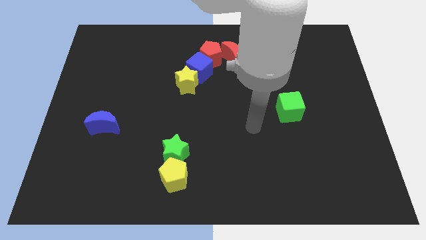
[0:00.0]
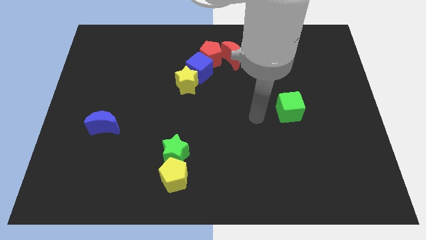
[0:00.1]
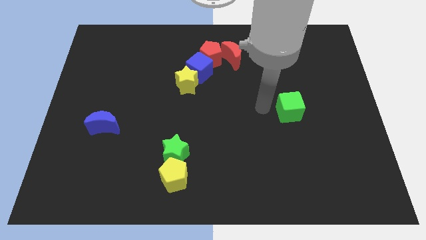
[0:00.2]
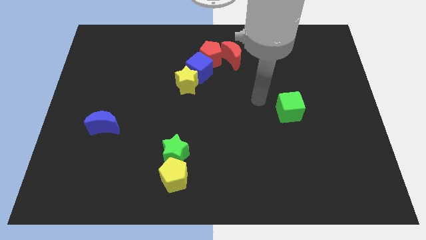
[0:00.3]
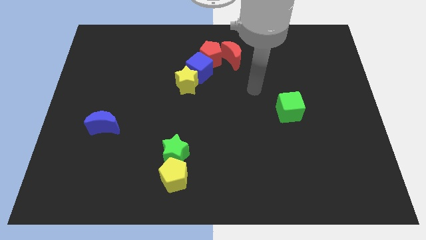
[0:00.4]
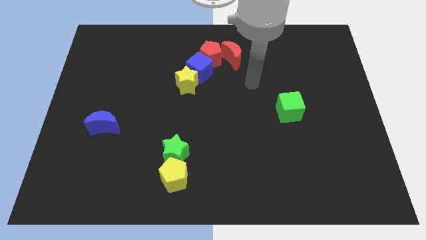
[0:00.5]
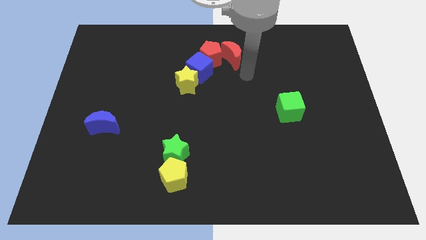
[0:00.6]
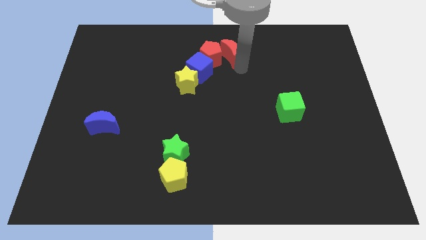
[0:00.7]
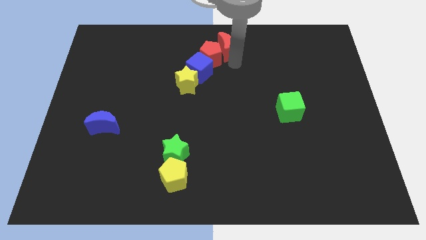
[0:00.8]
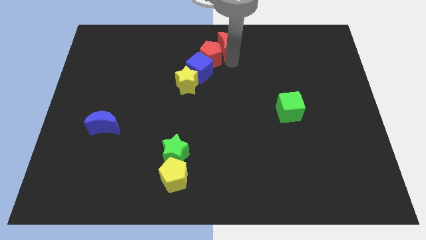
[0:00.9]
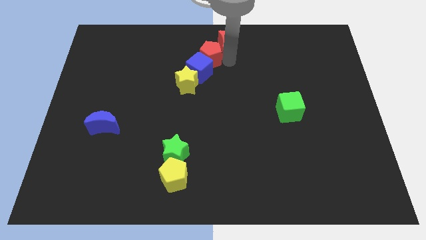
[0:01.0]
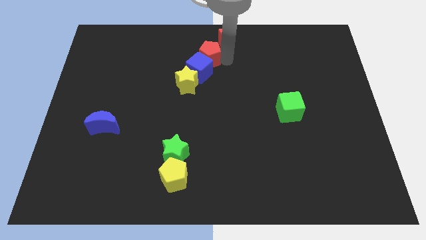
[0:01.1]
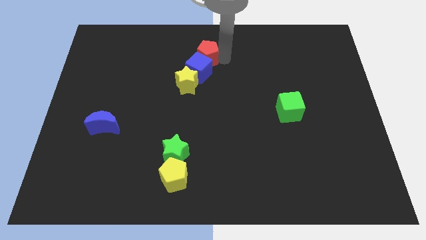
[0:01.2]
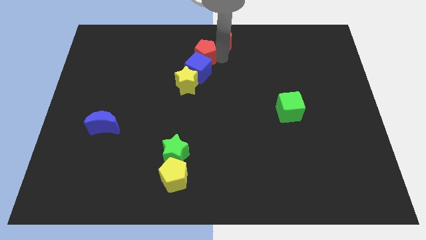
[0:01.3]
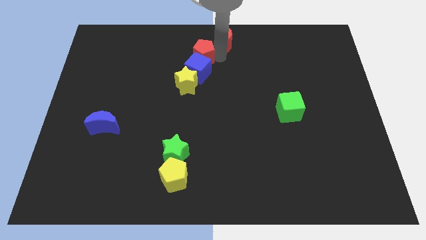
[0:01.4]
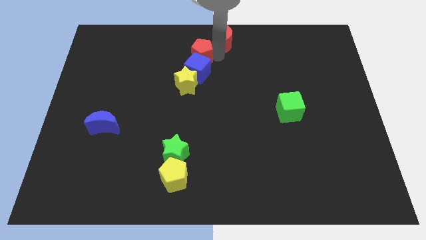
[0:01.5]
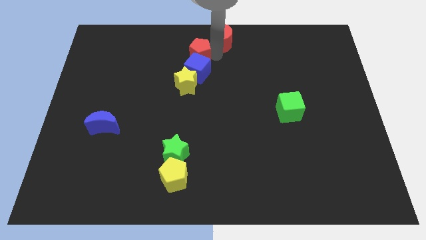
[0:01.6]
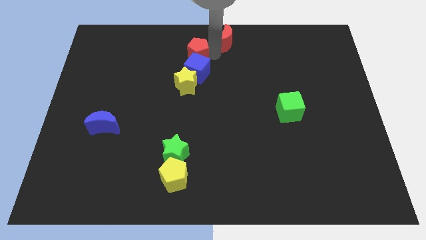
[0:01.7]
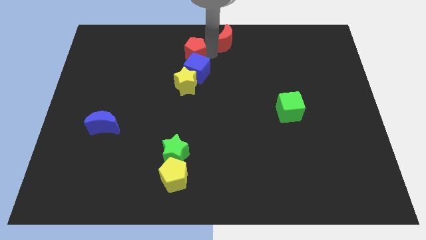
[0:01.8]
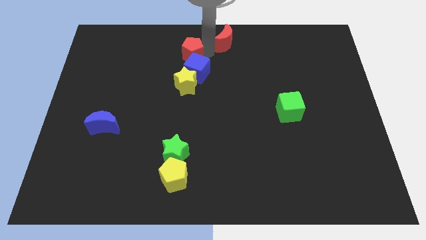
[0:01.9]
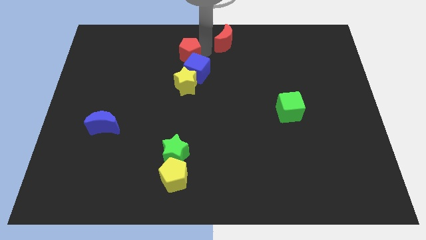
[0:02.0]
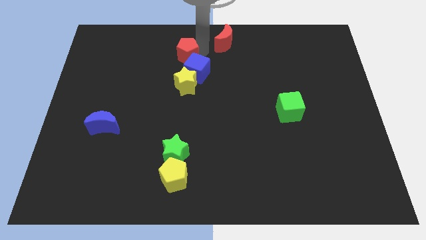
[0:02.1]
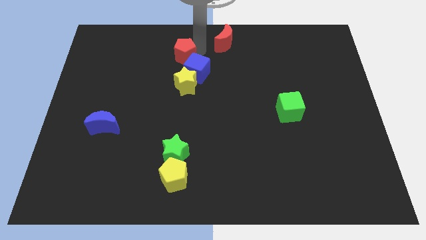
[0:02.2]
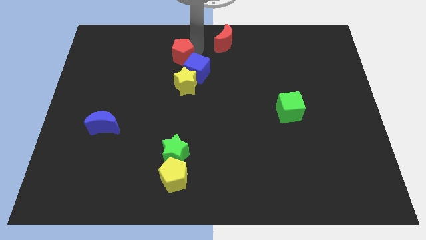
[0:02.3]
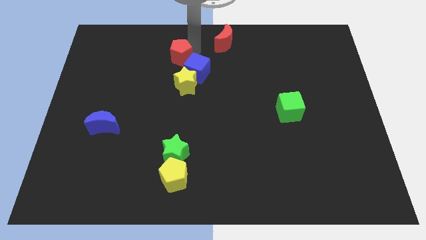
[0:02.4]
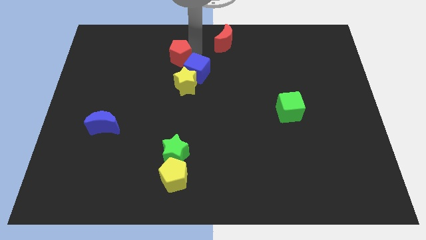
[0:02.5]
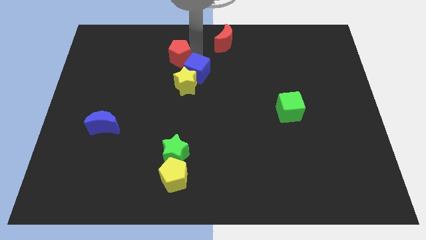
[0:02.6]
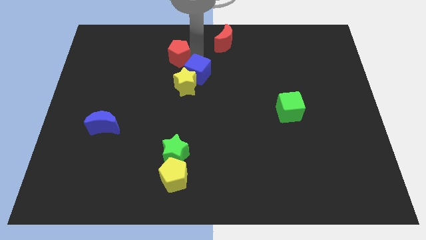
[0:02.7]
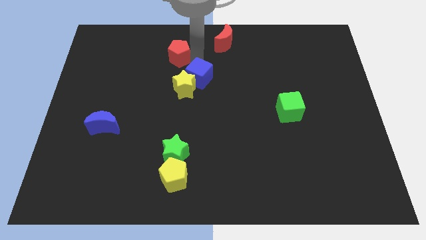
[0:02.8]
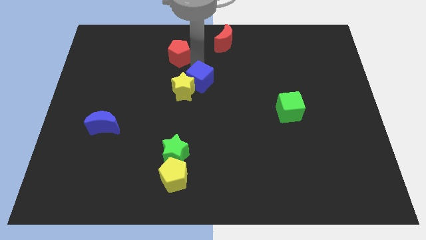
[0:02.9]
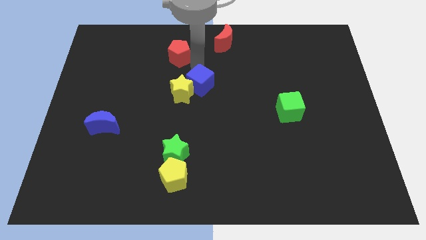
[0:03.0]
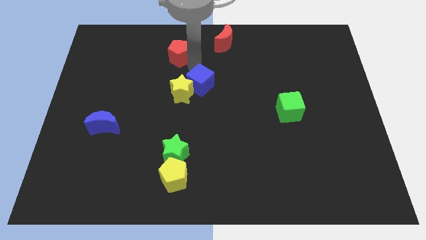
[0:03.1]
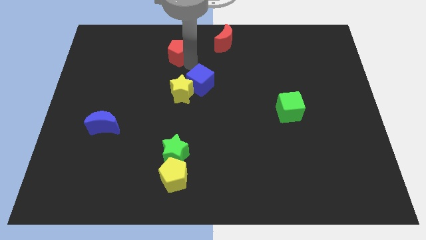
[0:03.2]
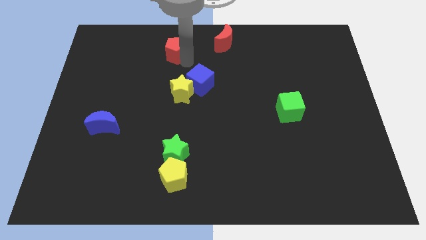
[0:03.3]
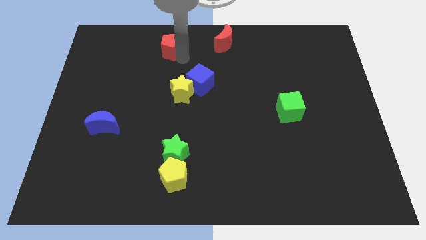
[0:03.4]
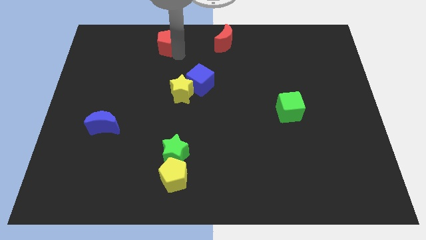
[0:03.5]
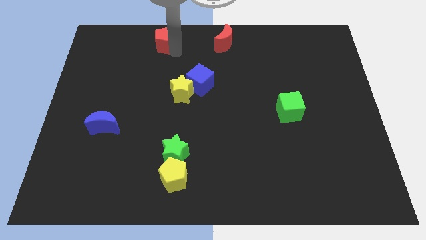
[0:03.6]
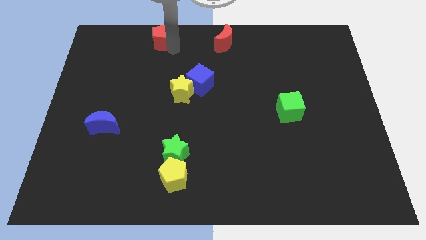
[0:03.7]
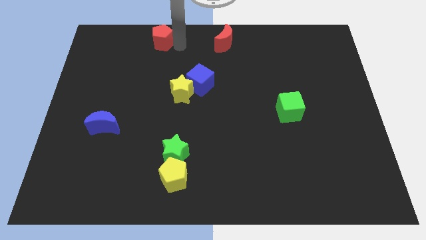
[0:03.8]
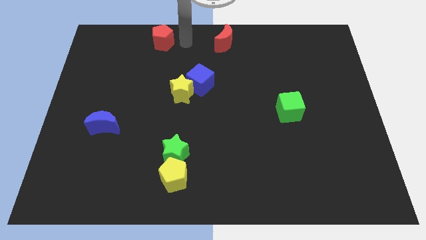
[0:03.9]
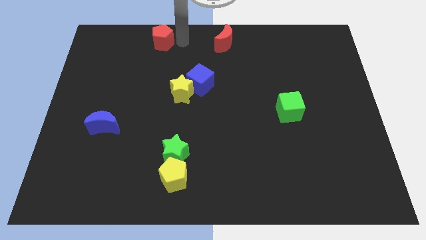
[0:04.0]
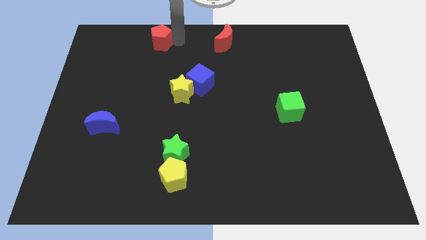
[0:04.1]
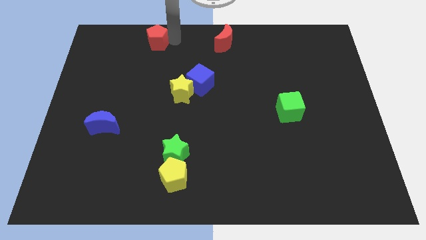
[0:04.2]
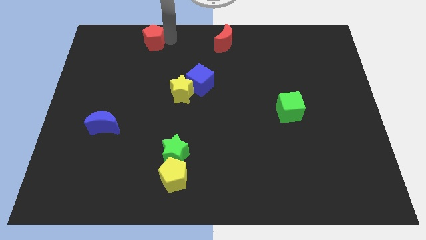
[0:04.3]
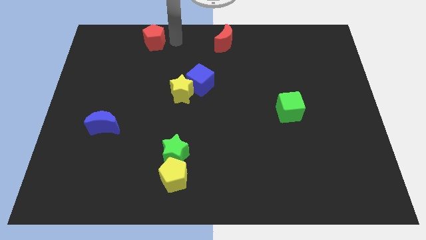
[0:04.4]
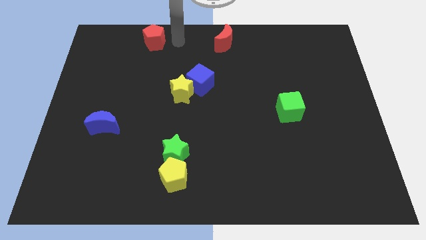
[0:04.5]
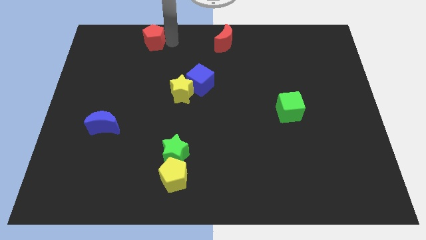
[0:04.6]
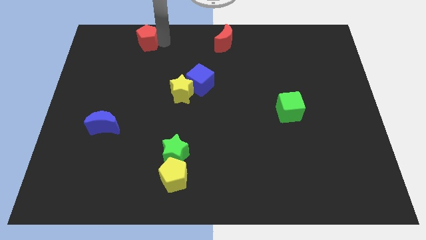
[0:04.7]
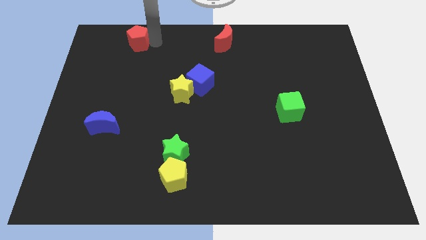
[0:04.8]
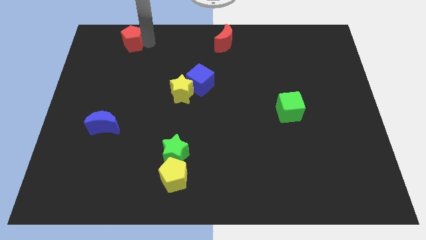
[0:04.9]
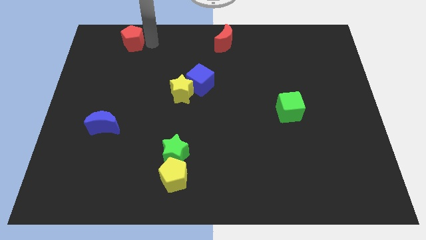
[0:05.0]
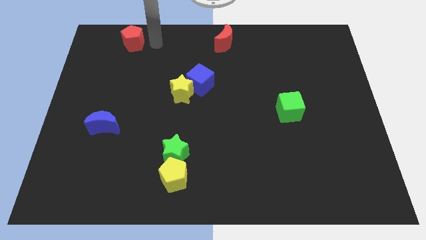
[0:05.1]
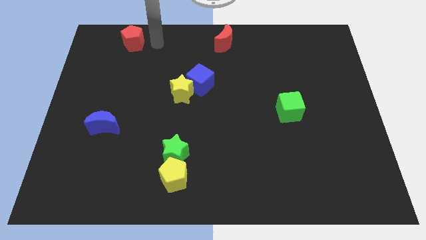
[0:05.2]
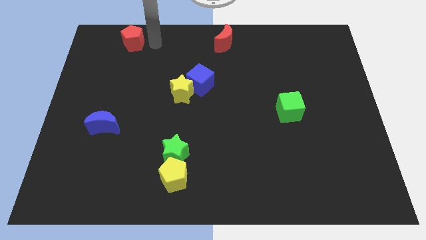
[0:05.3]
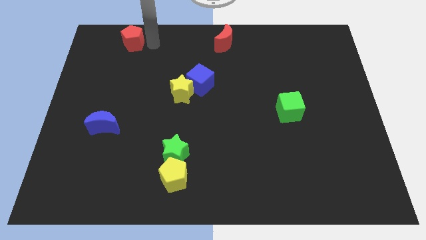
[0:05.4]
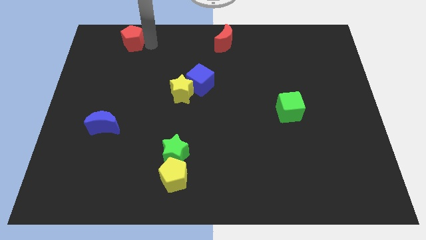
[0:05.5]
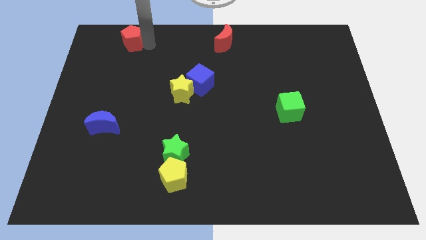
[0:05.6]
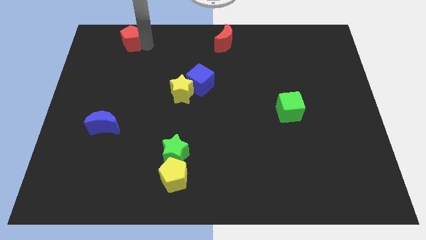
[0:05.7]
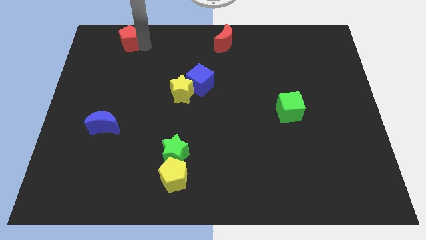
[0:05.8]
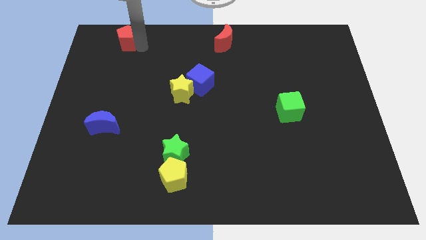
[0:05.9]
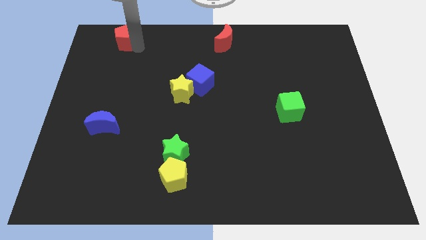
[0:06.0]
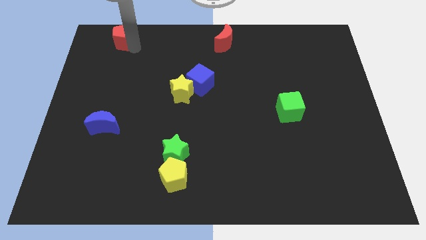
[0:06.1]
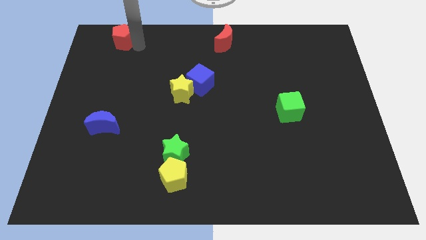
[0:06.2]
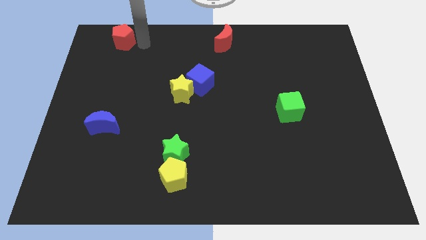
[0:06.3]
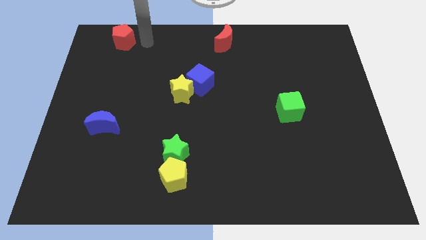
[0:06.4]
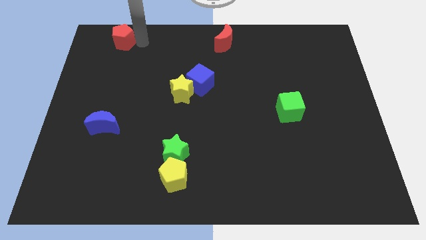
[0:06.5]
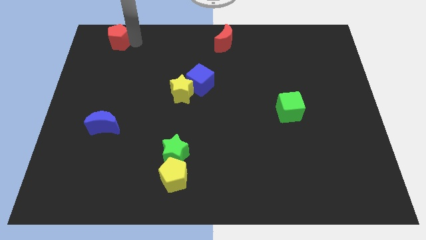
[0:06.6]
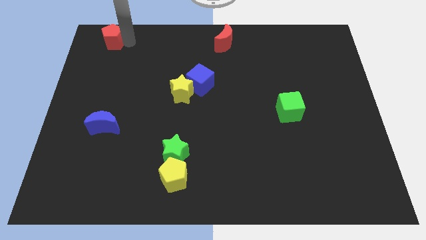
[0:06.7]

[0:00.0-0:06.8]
move the red pentagon to the top left corner
